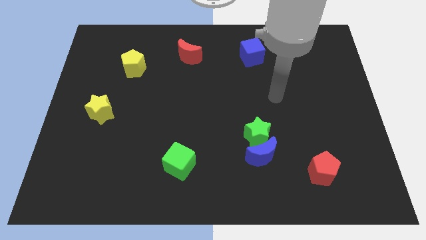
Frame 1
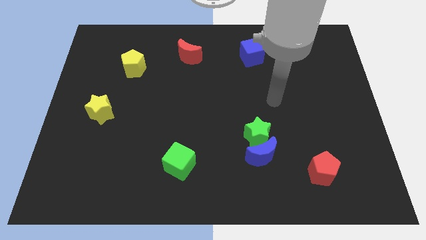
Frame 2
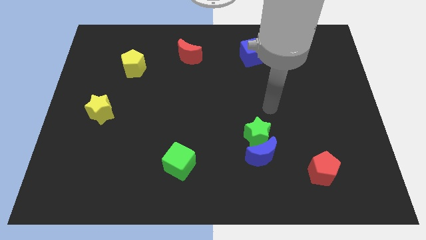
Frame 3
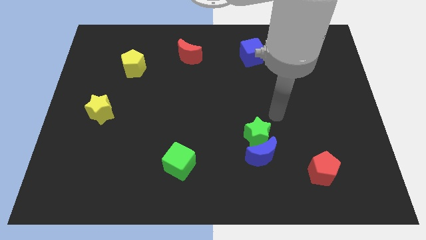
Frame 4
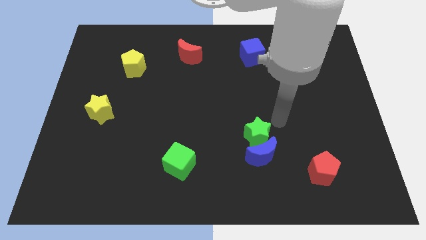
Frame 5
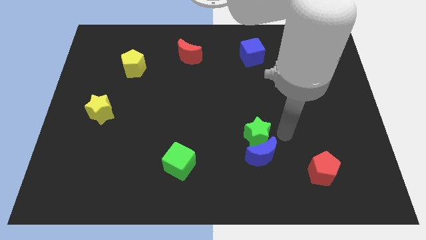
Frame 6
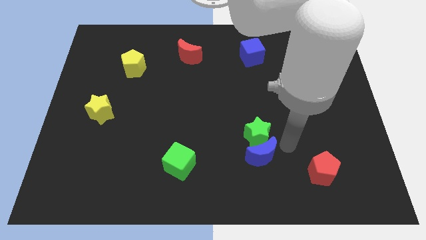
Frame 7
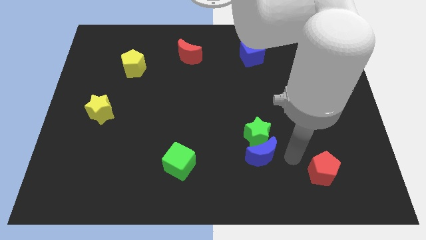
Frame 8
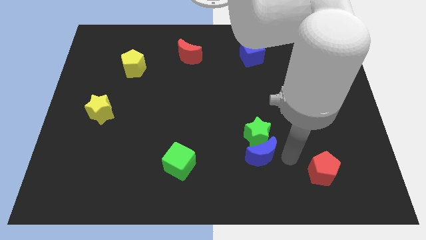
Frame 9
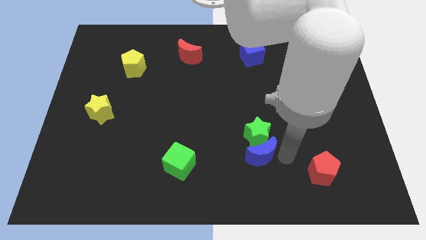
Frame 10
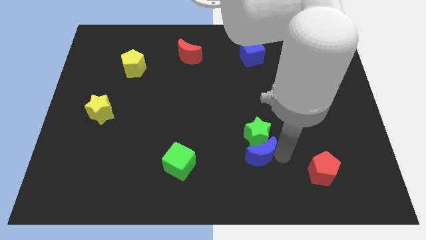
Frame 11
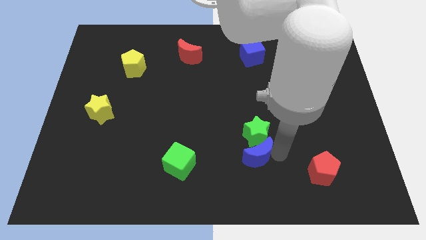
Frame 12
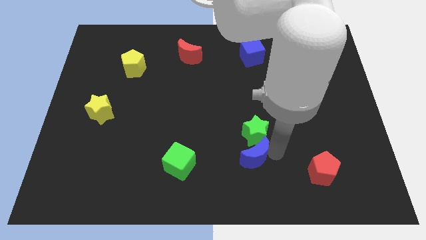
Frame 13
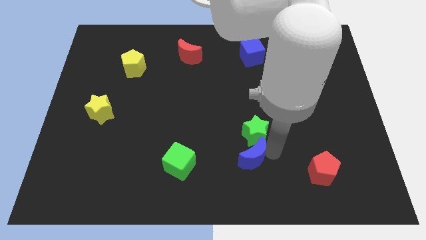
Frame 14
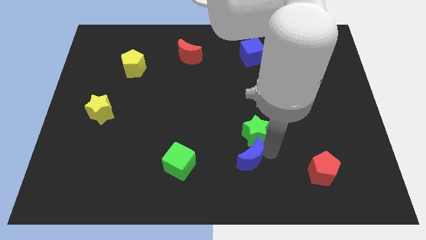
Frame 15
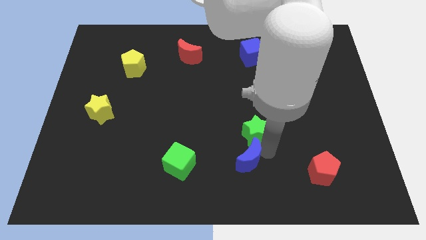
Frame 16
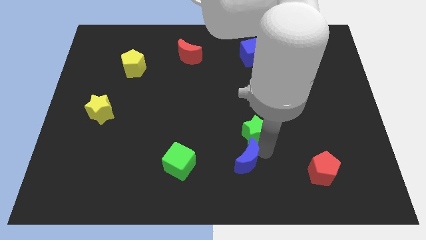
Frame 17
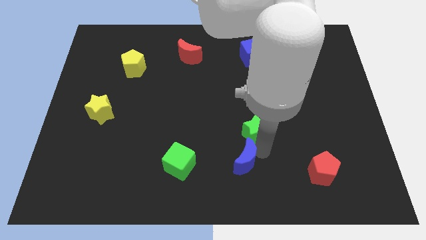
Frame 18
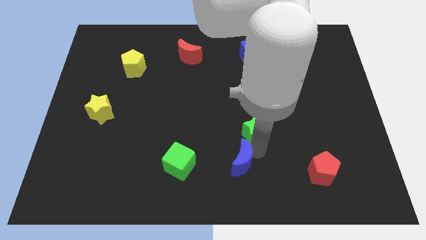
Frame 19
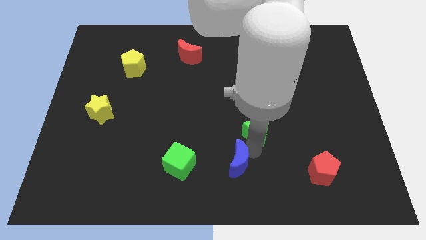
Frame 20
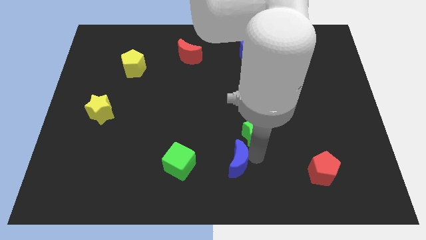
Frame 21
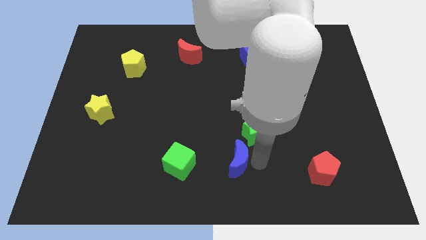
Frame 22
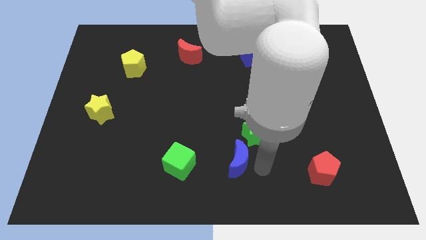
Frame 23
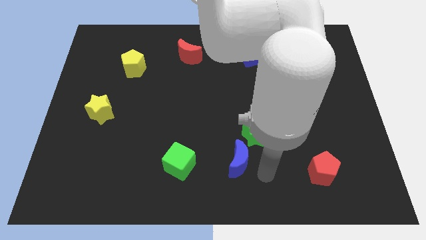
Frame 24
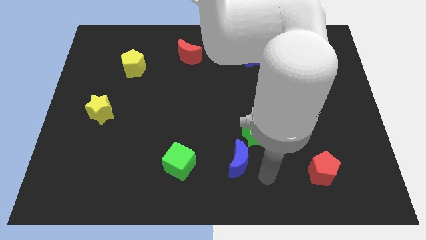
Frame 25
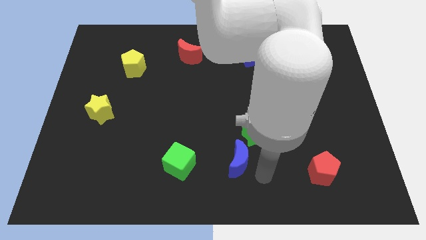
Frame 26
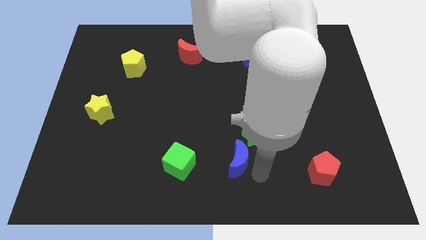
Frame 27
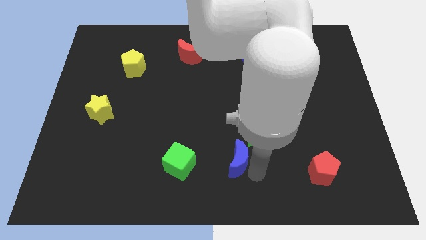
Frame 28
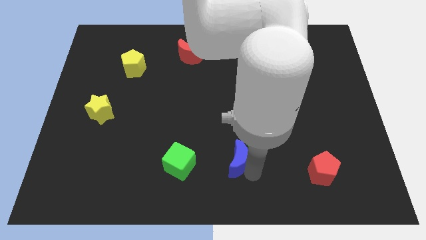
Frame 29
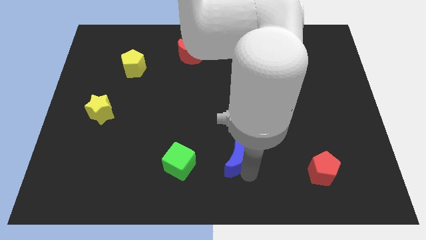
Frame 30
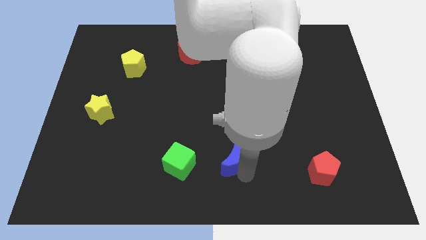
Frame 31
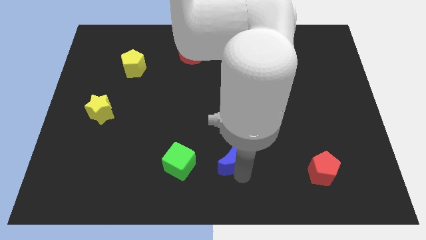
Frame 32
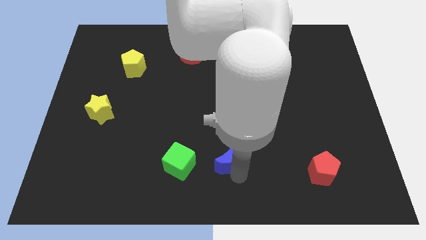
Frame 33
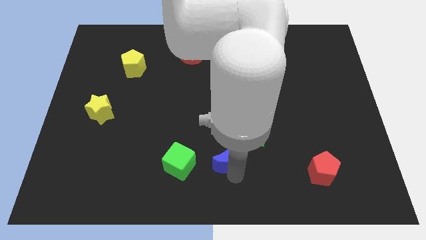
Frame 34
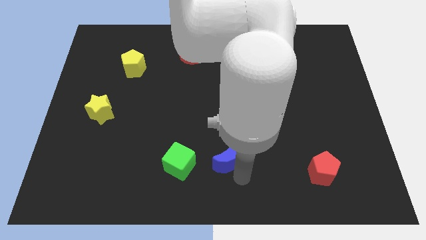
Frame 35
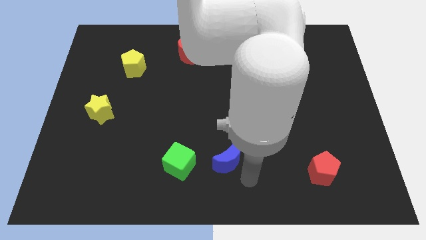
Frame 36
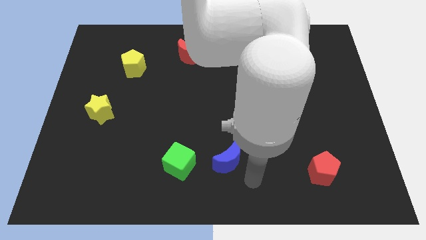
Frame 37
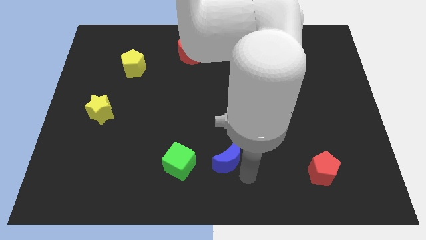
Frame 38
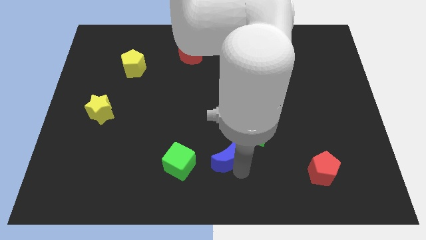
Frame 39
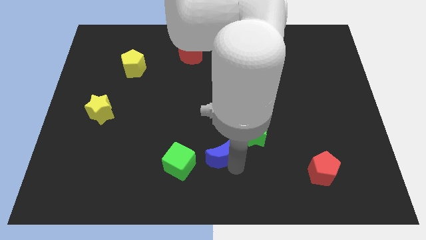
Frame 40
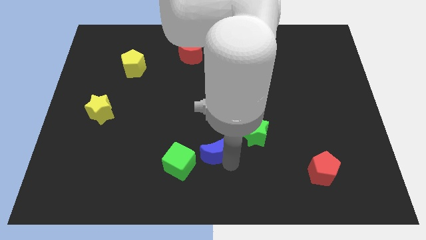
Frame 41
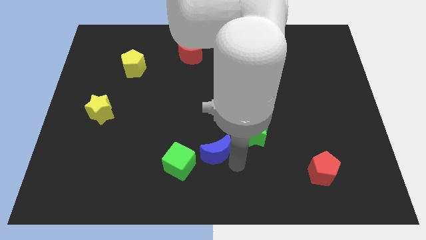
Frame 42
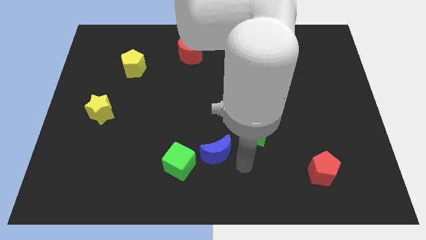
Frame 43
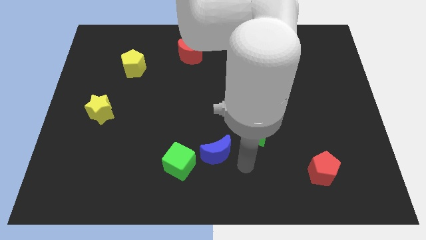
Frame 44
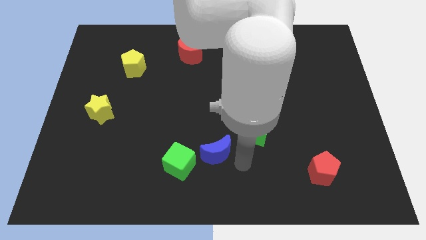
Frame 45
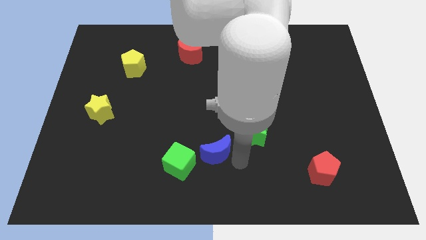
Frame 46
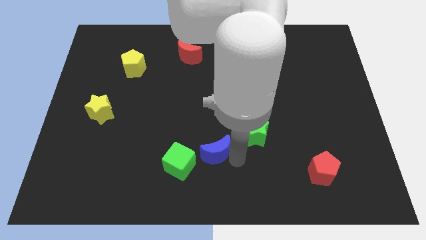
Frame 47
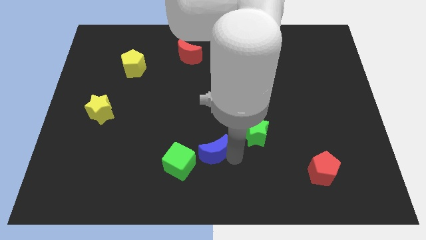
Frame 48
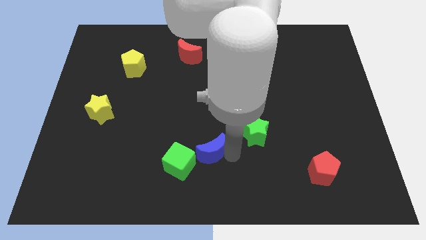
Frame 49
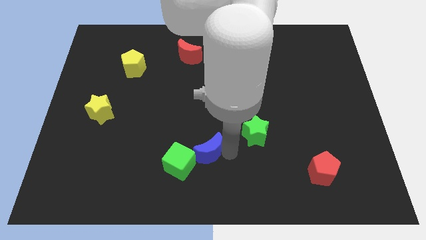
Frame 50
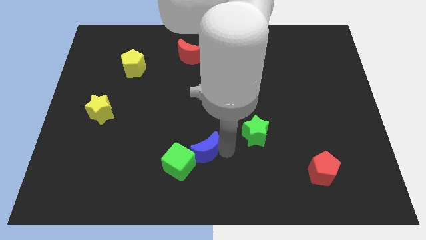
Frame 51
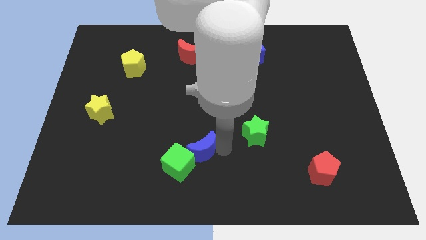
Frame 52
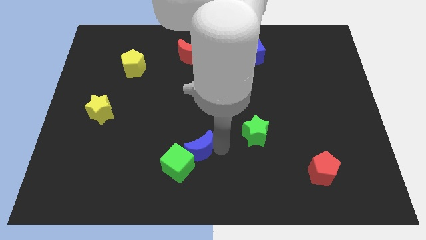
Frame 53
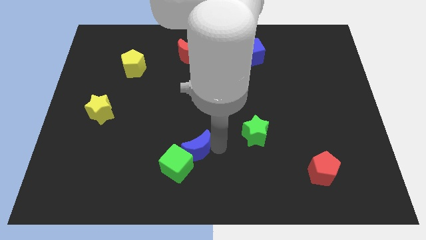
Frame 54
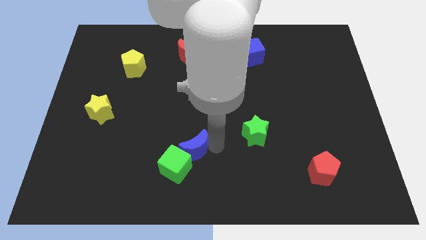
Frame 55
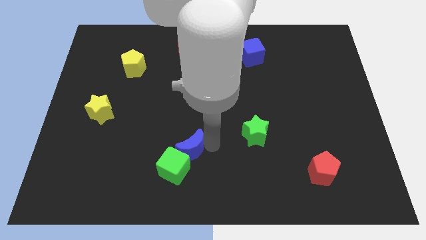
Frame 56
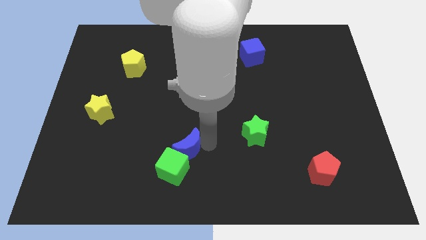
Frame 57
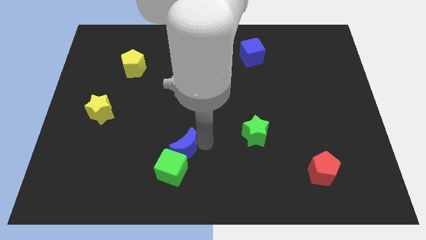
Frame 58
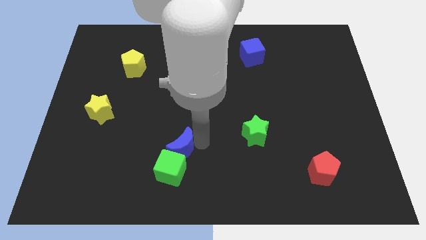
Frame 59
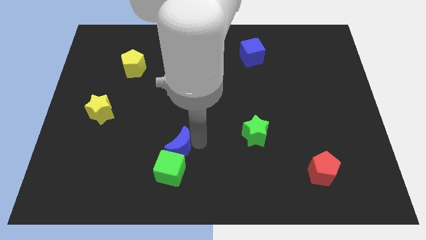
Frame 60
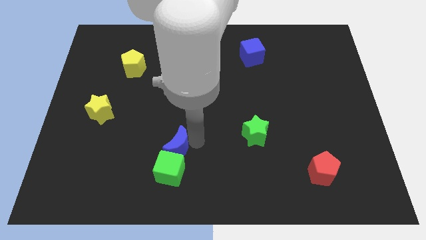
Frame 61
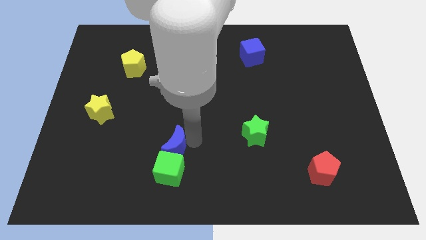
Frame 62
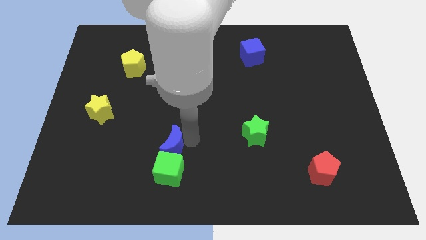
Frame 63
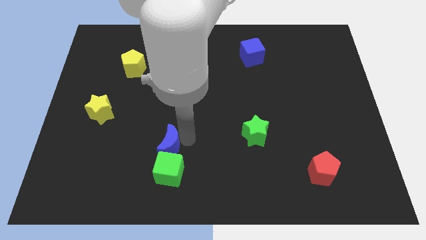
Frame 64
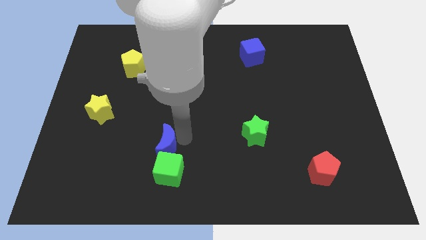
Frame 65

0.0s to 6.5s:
slide the blue moon to the left

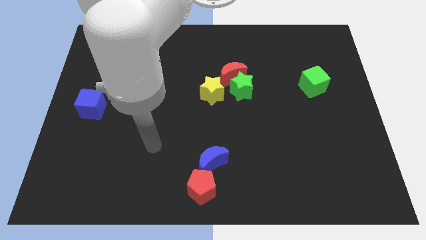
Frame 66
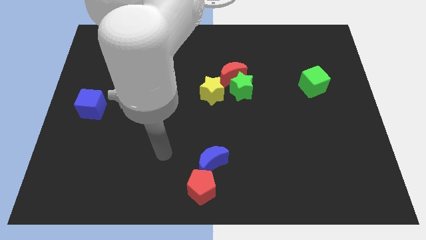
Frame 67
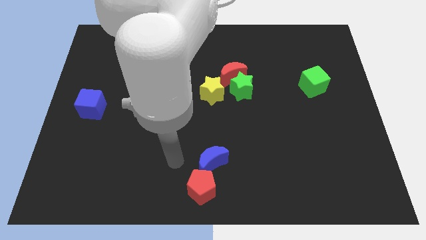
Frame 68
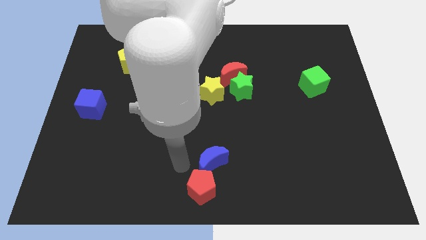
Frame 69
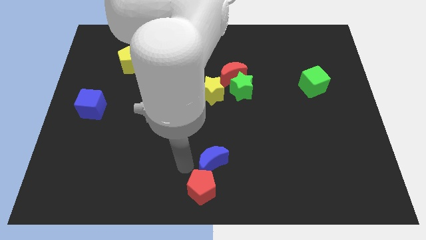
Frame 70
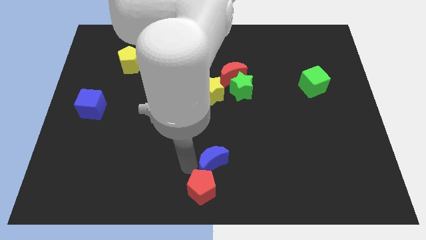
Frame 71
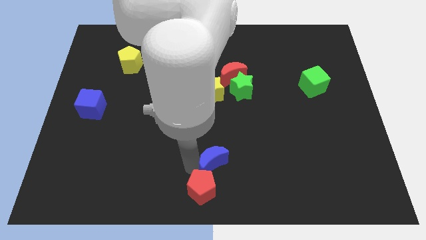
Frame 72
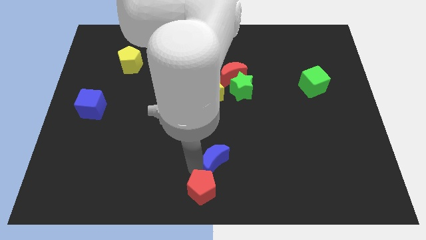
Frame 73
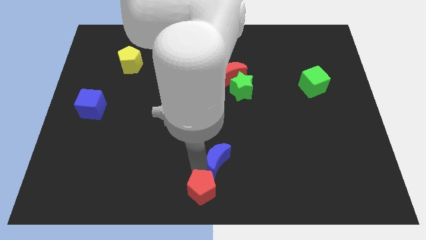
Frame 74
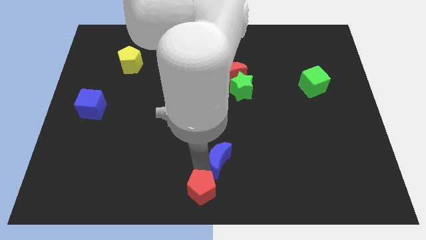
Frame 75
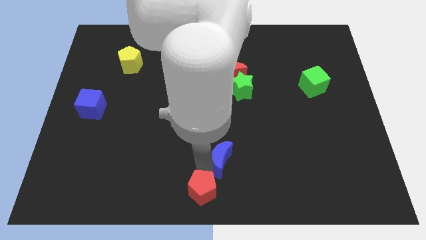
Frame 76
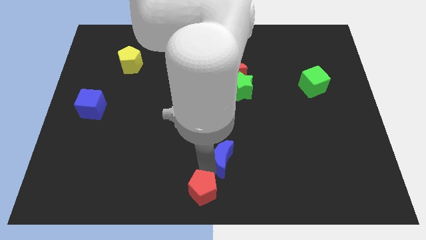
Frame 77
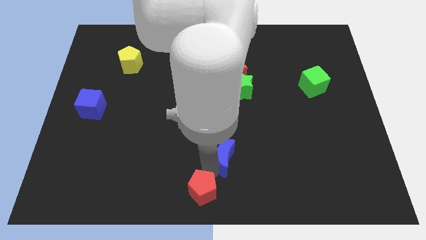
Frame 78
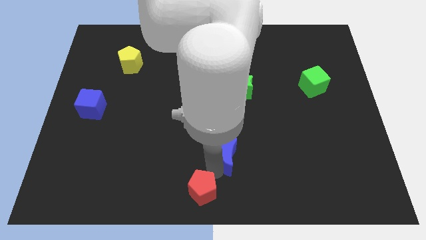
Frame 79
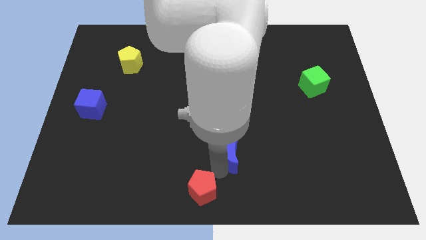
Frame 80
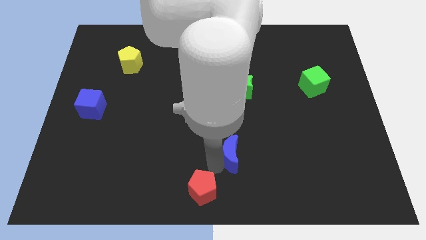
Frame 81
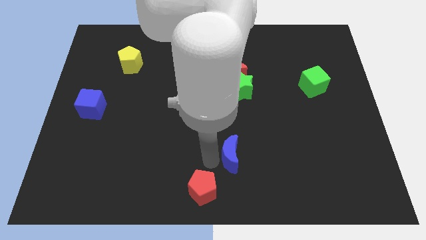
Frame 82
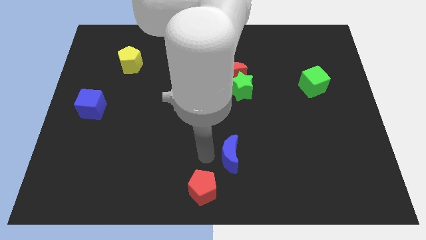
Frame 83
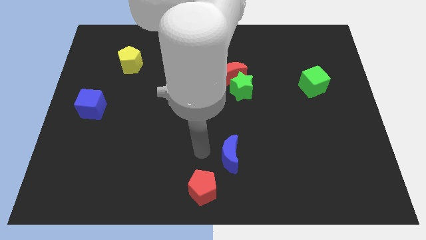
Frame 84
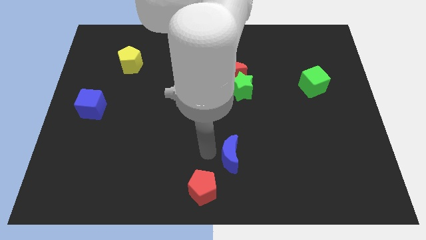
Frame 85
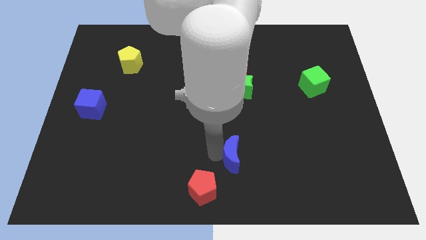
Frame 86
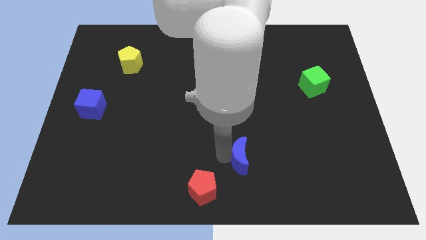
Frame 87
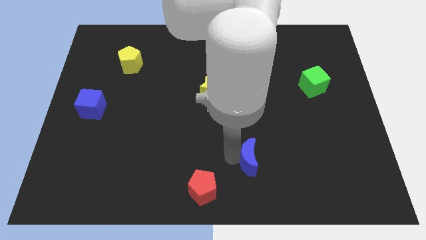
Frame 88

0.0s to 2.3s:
move the blue moon right a little
